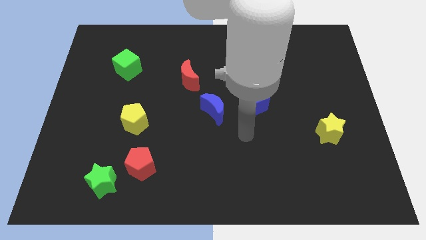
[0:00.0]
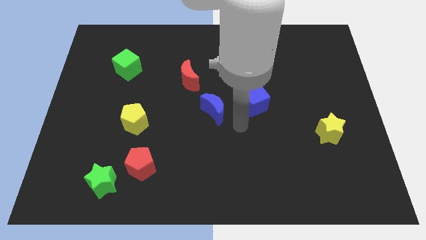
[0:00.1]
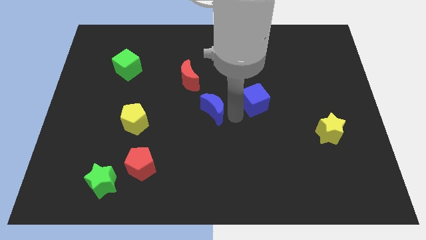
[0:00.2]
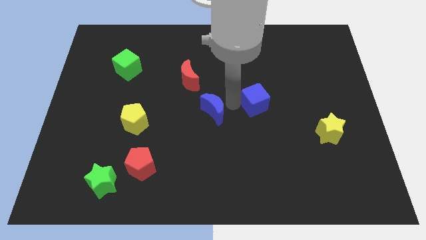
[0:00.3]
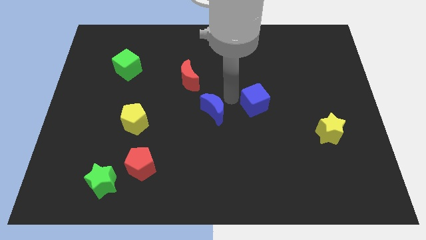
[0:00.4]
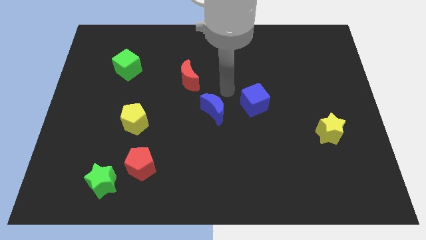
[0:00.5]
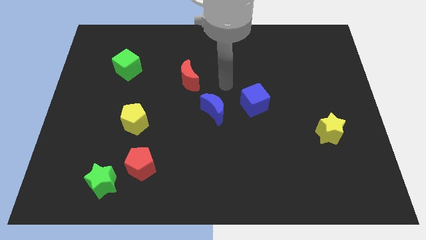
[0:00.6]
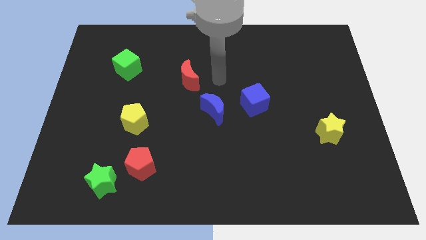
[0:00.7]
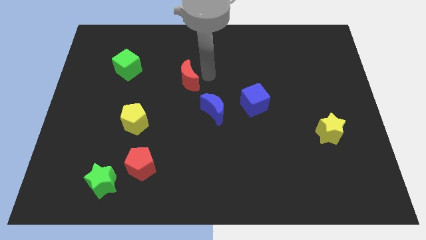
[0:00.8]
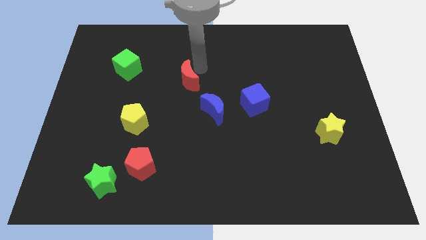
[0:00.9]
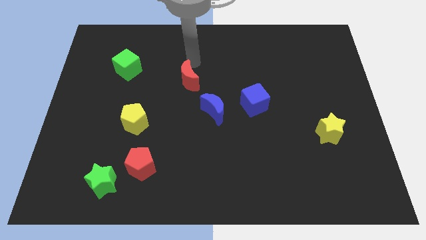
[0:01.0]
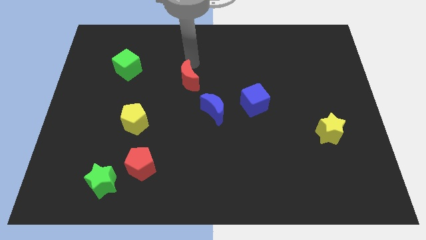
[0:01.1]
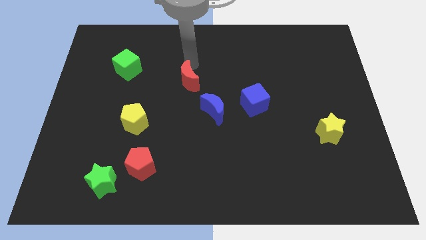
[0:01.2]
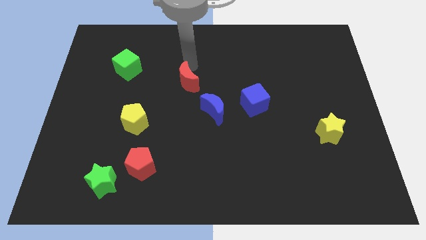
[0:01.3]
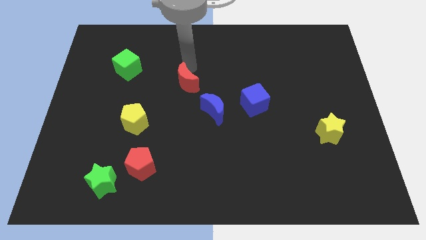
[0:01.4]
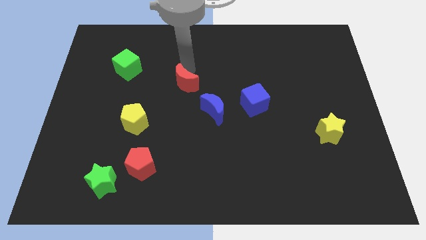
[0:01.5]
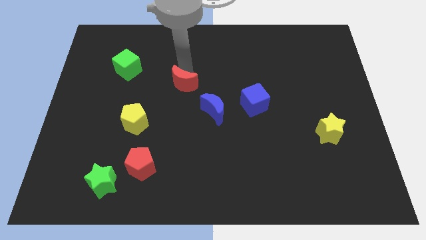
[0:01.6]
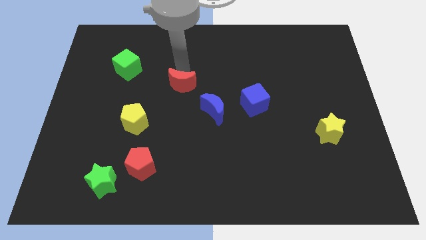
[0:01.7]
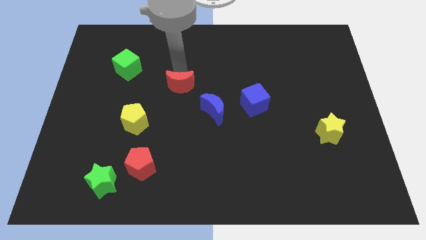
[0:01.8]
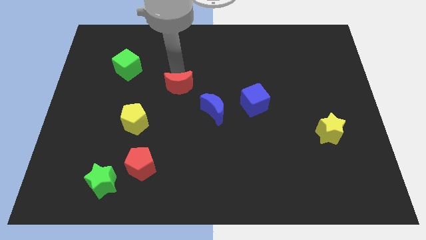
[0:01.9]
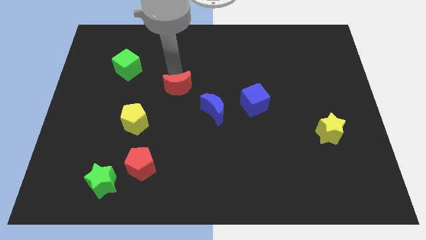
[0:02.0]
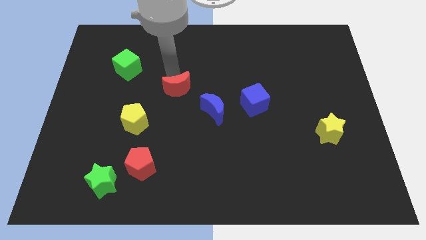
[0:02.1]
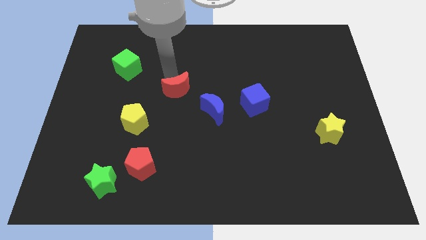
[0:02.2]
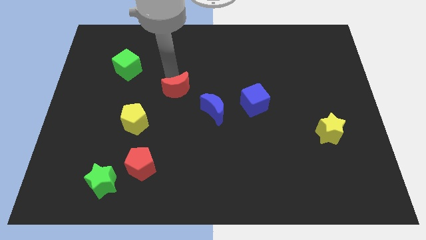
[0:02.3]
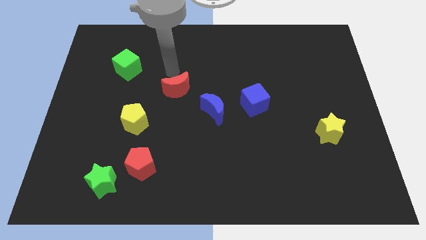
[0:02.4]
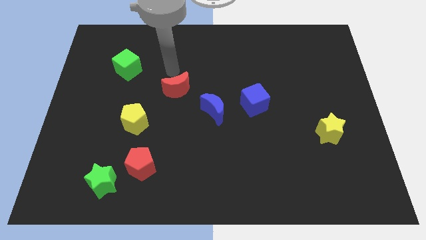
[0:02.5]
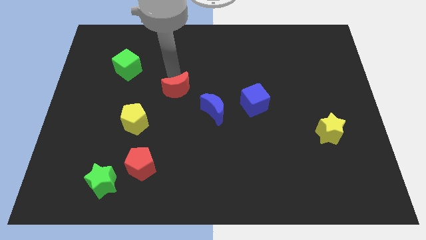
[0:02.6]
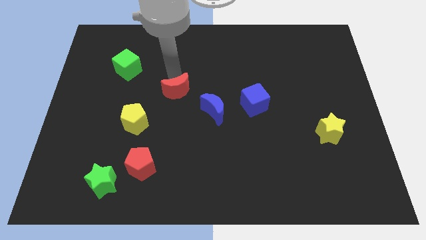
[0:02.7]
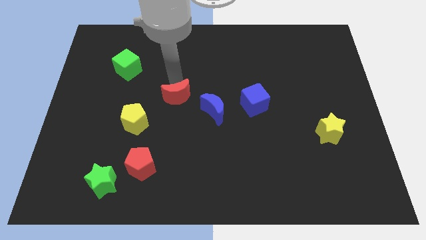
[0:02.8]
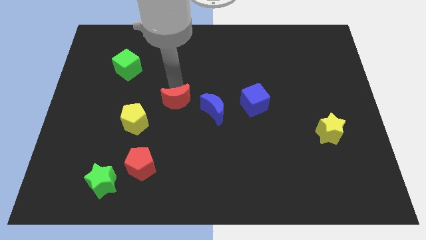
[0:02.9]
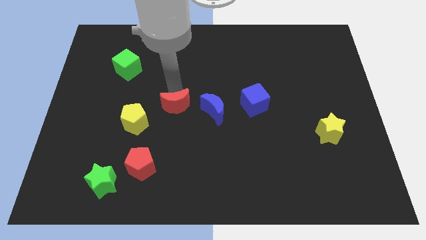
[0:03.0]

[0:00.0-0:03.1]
slide the red moon down a little

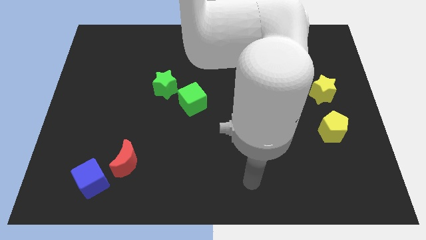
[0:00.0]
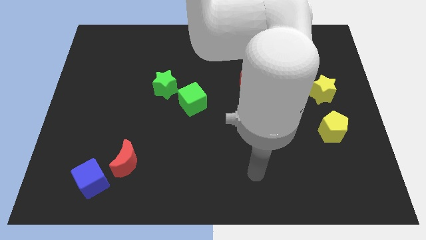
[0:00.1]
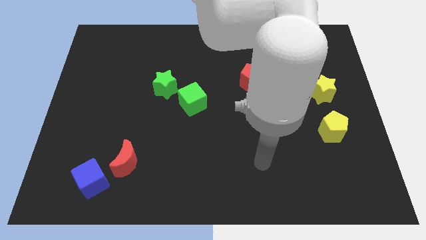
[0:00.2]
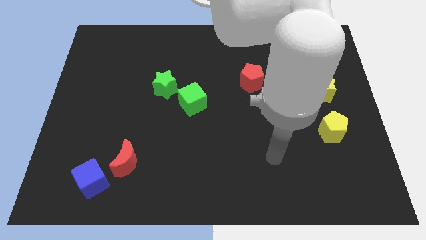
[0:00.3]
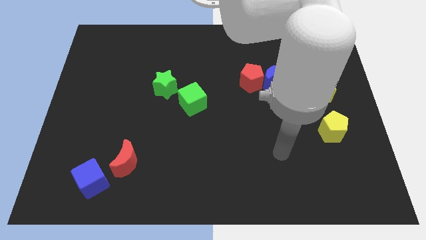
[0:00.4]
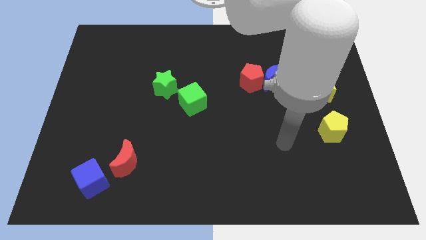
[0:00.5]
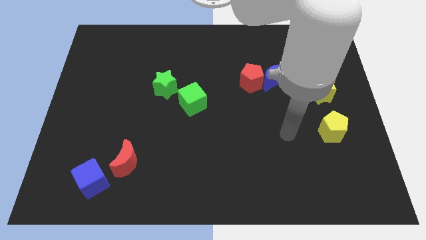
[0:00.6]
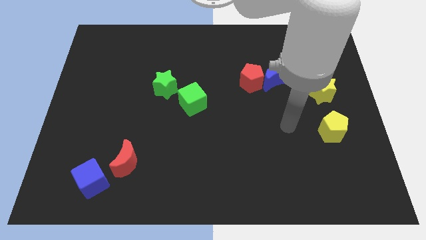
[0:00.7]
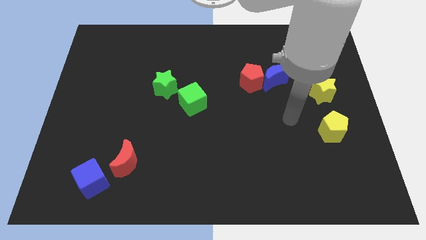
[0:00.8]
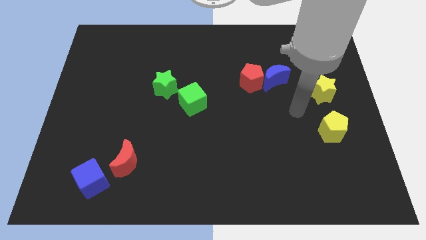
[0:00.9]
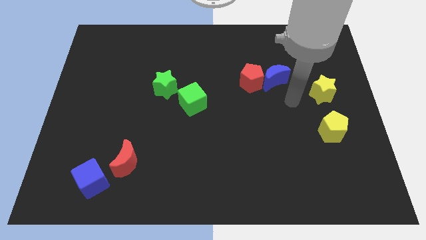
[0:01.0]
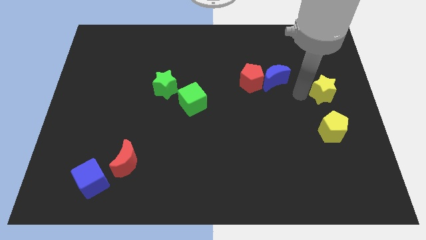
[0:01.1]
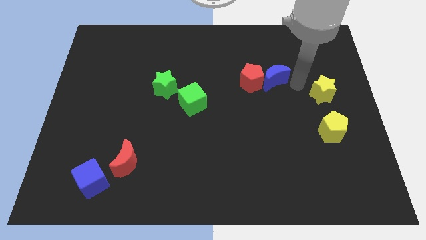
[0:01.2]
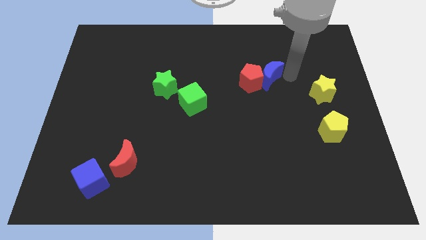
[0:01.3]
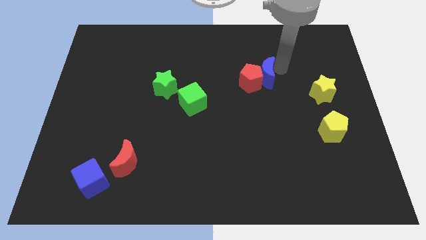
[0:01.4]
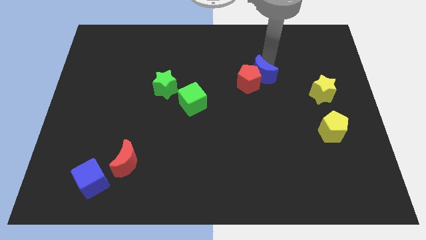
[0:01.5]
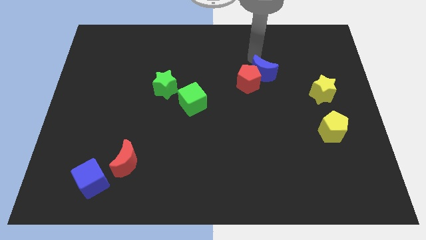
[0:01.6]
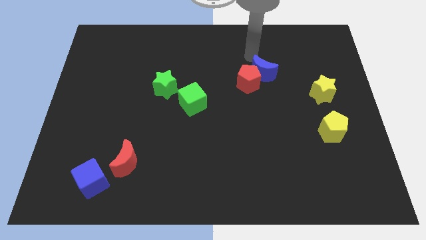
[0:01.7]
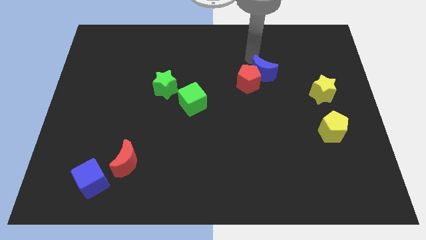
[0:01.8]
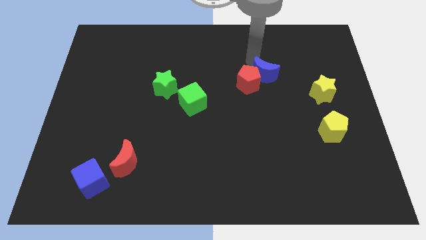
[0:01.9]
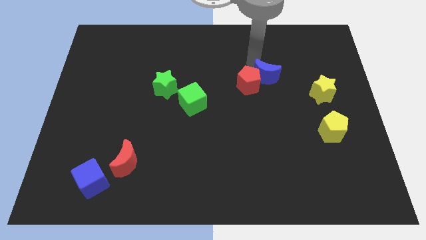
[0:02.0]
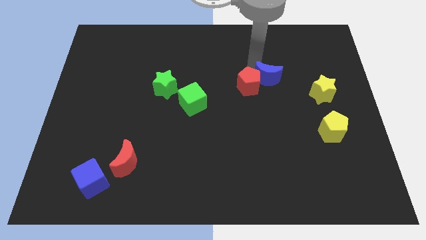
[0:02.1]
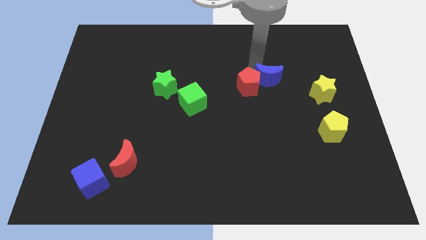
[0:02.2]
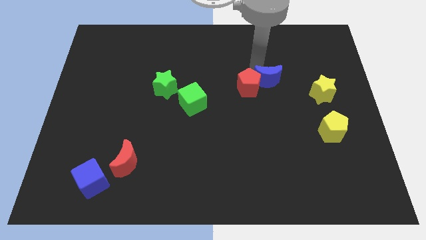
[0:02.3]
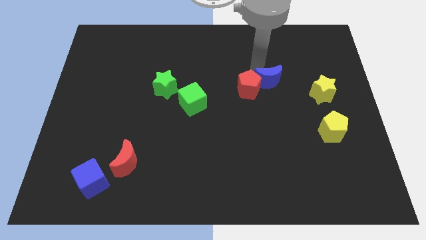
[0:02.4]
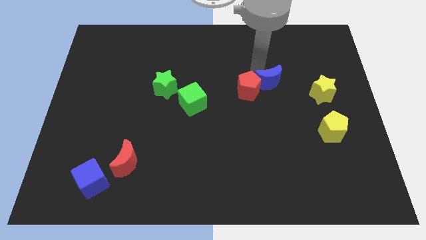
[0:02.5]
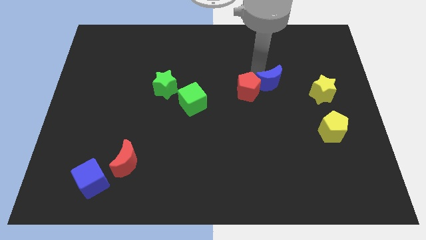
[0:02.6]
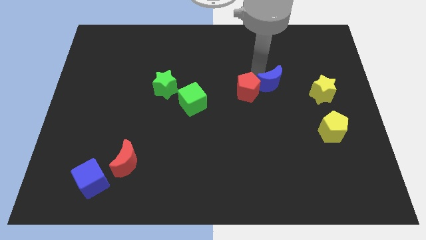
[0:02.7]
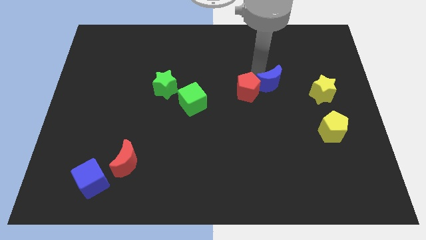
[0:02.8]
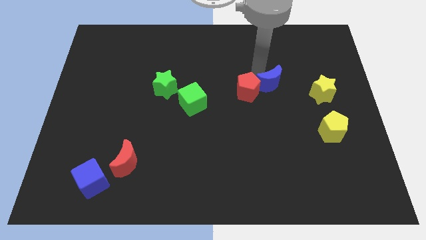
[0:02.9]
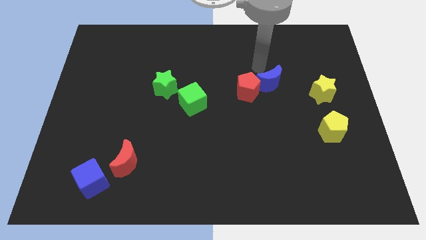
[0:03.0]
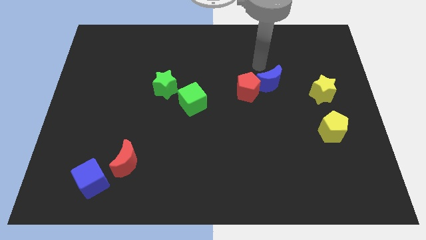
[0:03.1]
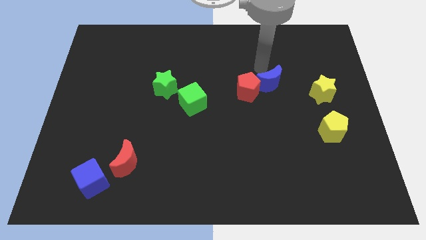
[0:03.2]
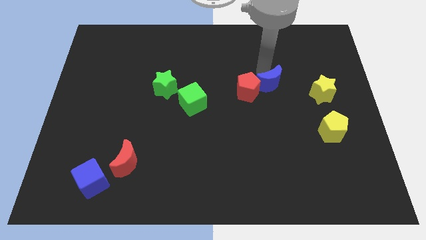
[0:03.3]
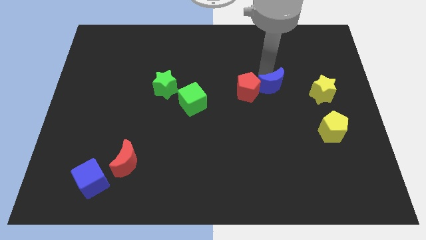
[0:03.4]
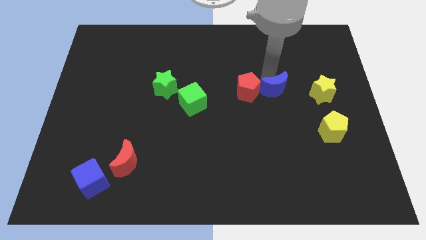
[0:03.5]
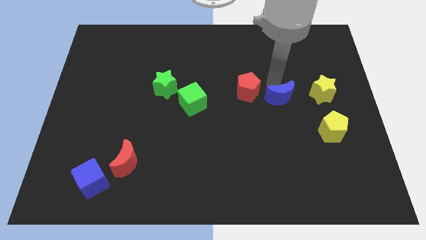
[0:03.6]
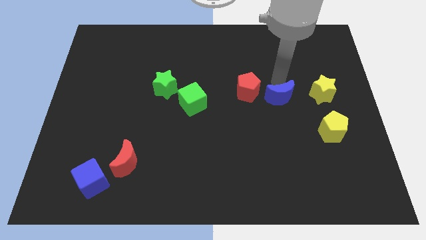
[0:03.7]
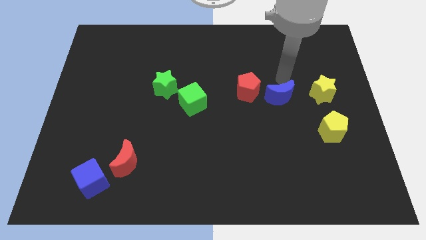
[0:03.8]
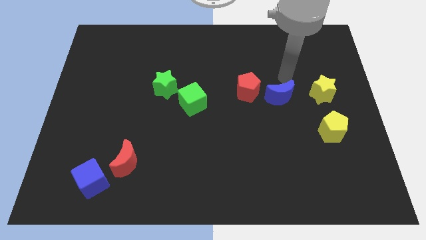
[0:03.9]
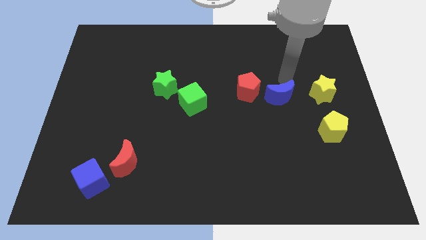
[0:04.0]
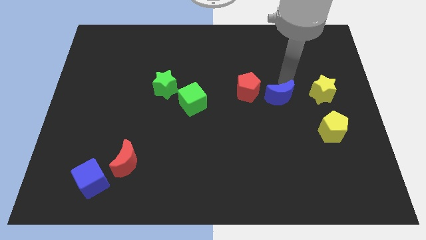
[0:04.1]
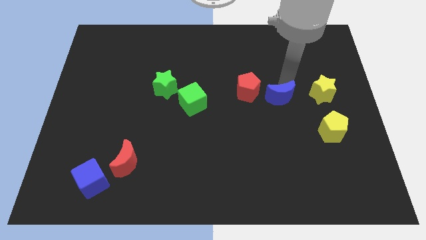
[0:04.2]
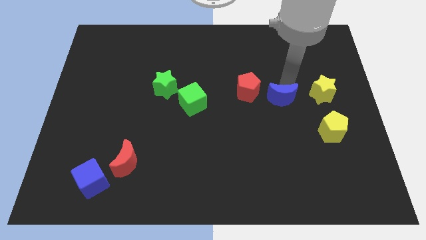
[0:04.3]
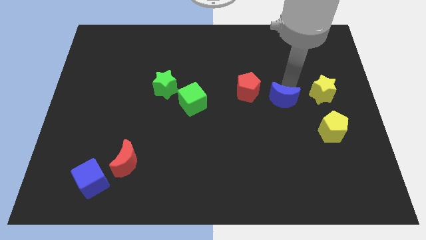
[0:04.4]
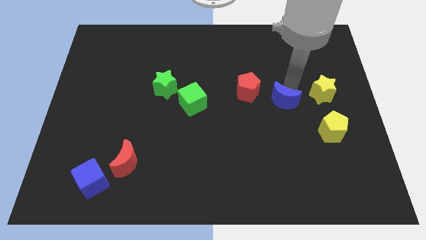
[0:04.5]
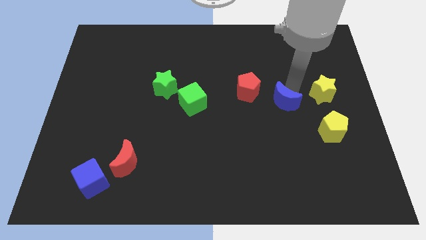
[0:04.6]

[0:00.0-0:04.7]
move the blue moon down a little
